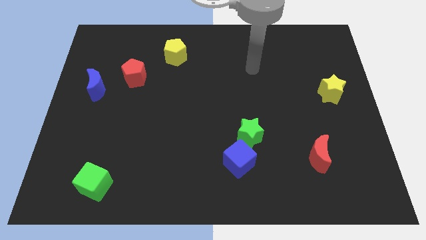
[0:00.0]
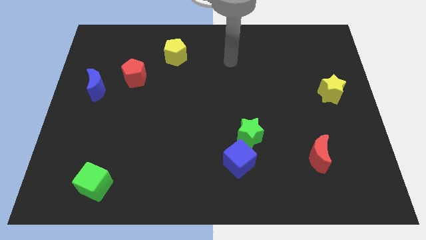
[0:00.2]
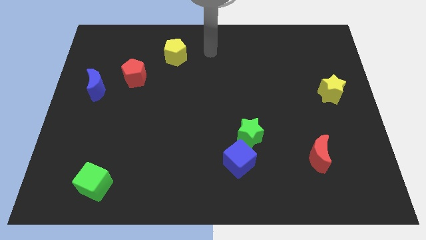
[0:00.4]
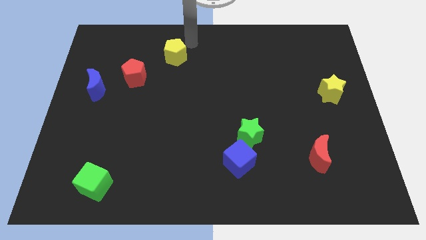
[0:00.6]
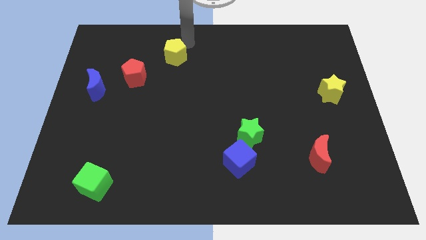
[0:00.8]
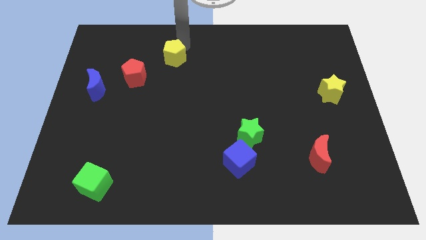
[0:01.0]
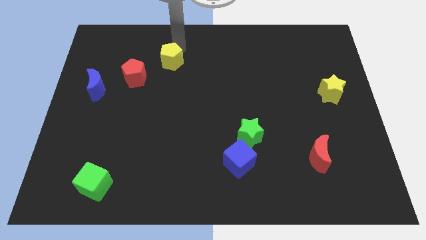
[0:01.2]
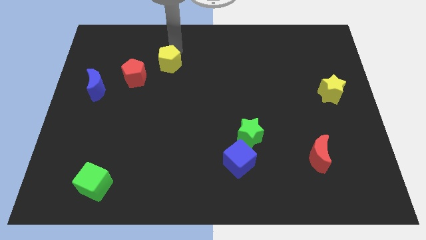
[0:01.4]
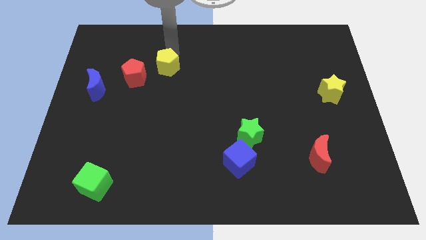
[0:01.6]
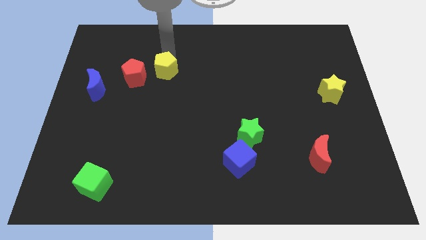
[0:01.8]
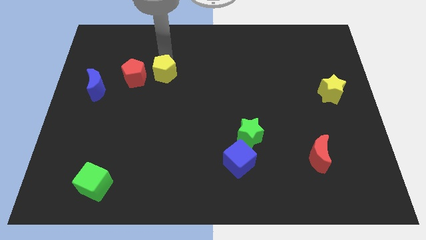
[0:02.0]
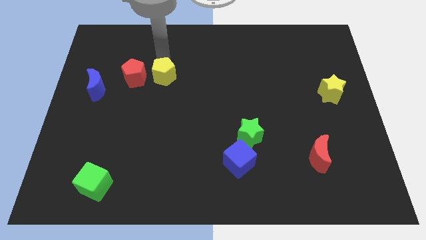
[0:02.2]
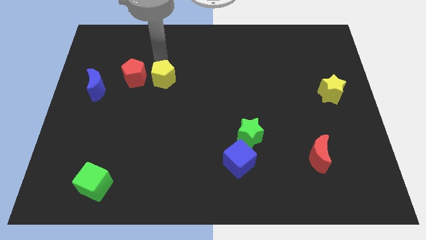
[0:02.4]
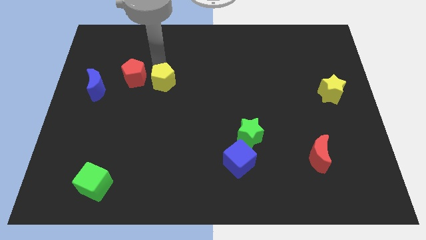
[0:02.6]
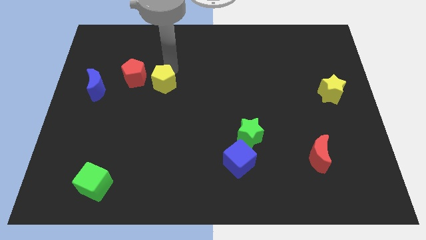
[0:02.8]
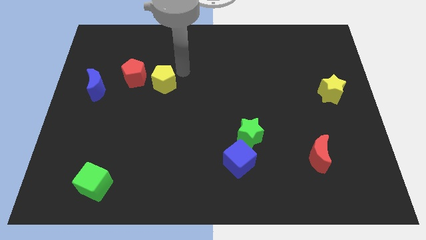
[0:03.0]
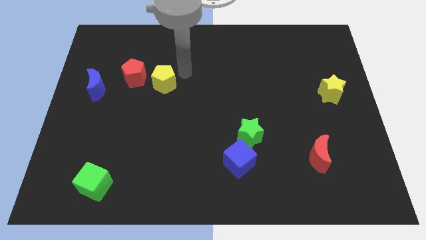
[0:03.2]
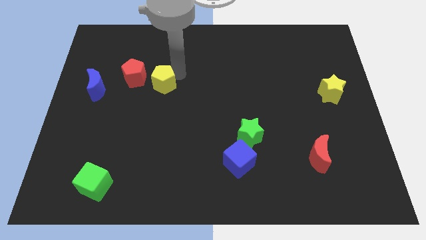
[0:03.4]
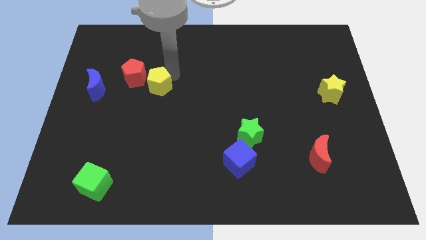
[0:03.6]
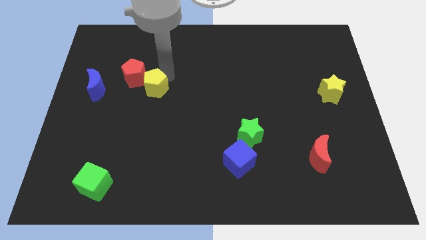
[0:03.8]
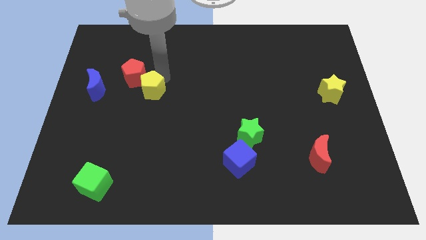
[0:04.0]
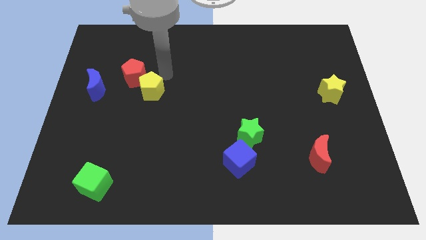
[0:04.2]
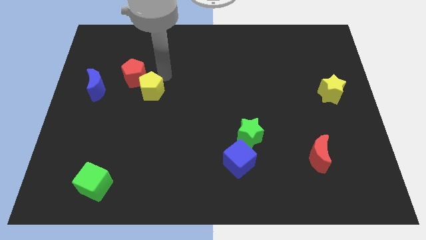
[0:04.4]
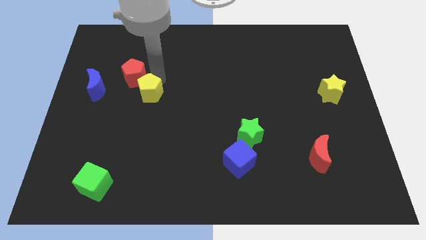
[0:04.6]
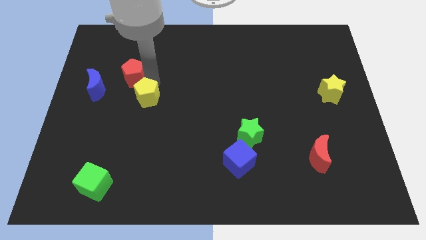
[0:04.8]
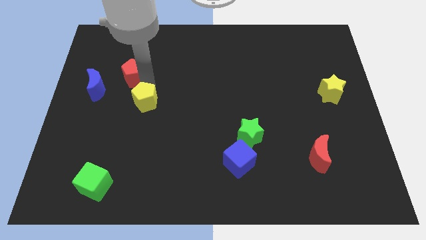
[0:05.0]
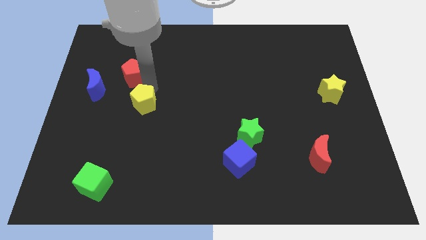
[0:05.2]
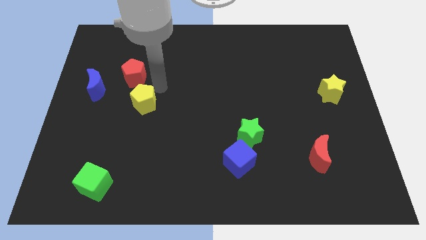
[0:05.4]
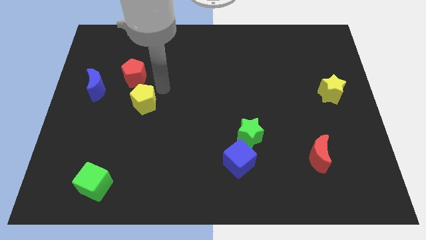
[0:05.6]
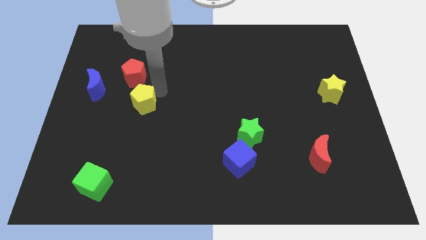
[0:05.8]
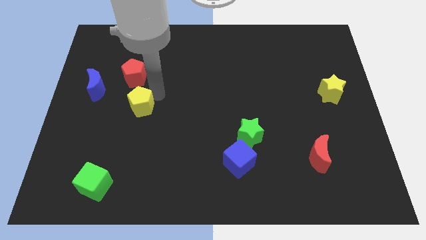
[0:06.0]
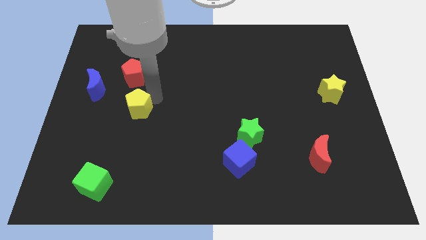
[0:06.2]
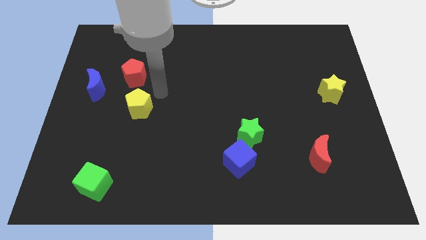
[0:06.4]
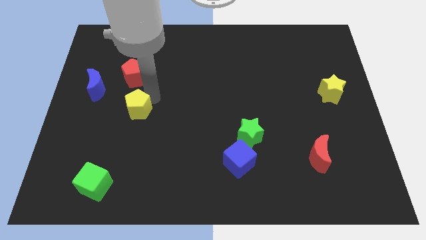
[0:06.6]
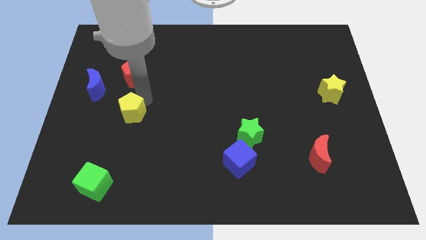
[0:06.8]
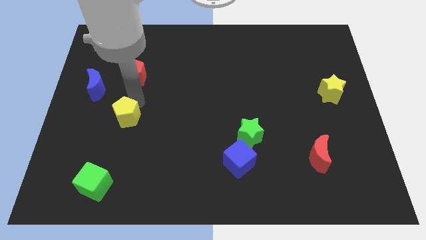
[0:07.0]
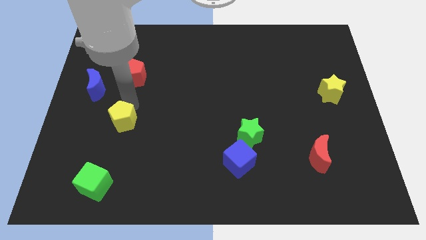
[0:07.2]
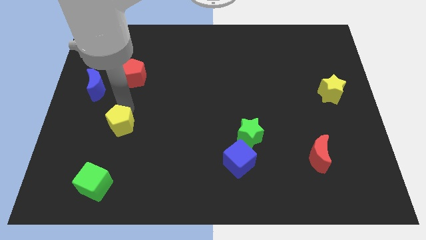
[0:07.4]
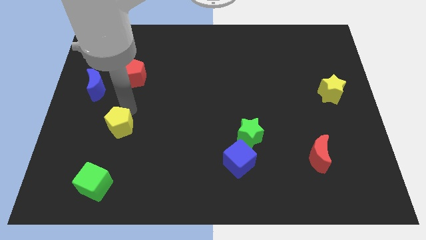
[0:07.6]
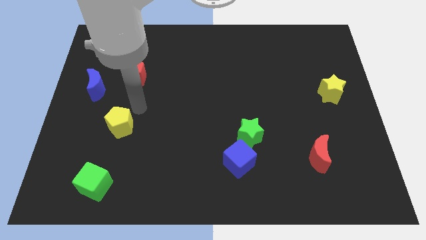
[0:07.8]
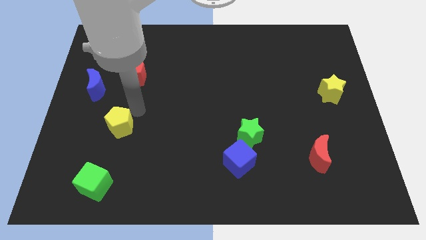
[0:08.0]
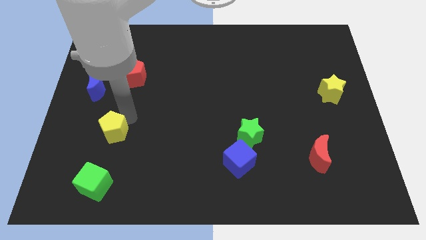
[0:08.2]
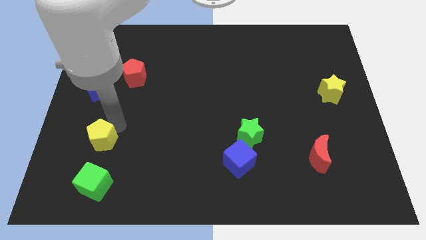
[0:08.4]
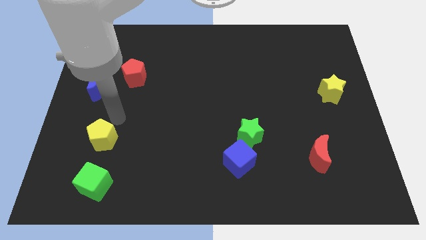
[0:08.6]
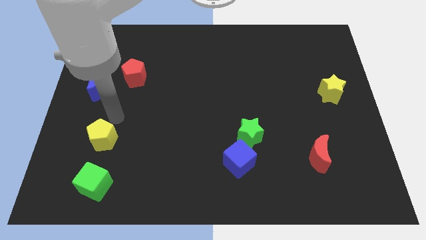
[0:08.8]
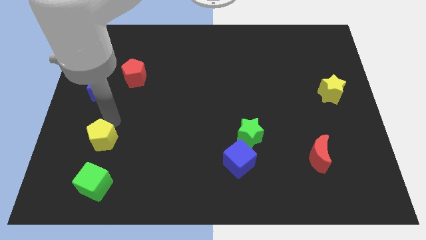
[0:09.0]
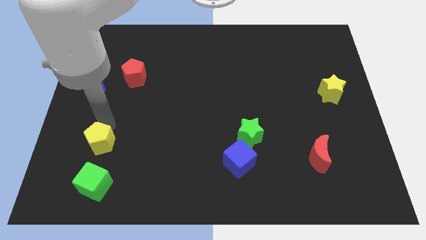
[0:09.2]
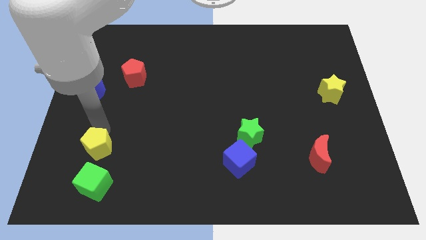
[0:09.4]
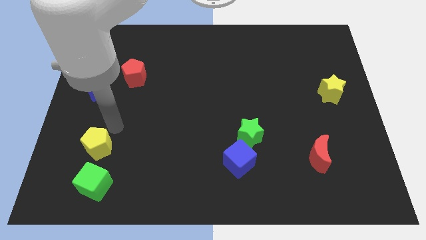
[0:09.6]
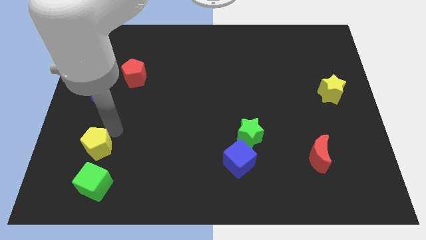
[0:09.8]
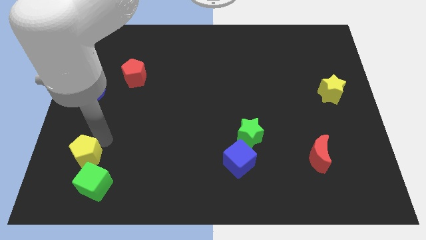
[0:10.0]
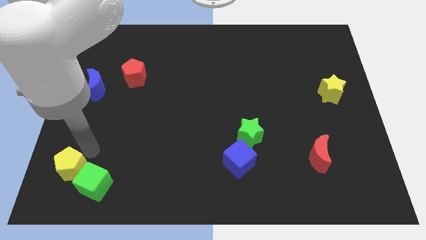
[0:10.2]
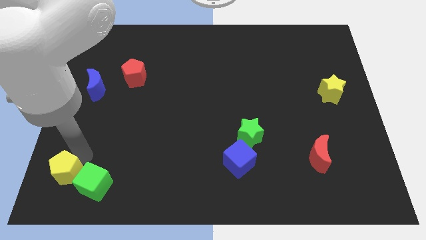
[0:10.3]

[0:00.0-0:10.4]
move the yellow pentagon to the bottom left of the board

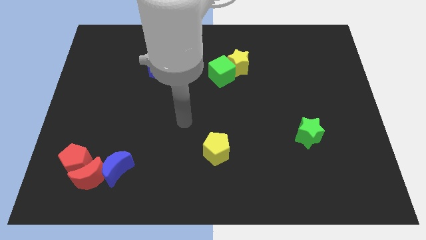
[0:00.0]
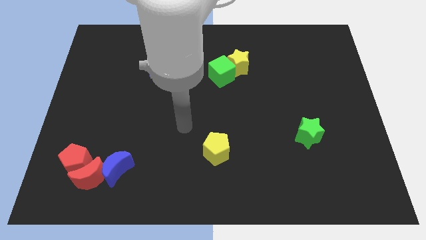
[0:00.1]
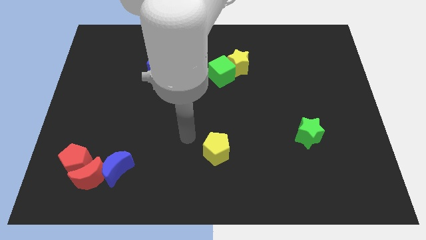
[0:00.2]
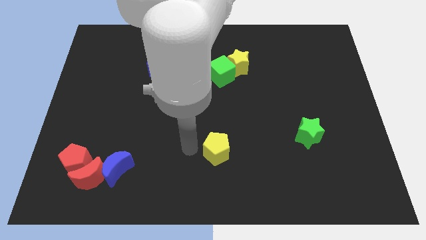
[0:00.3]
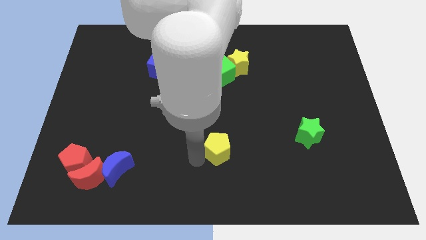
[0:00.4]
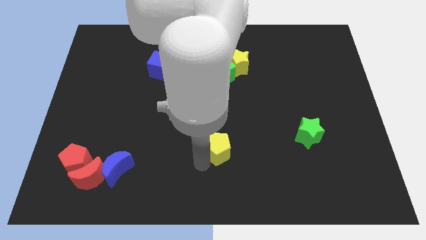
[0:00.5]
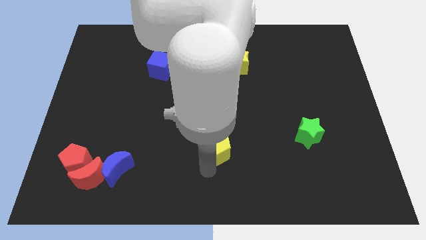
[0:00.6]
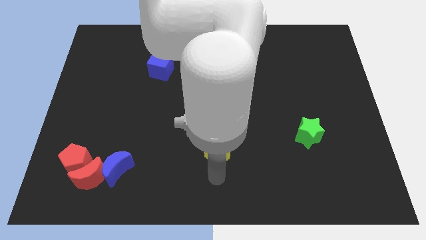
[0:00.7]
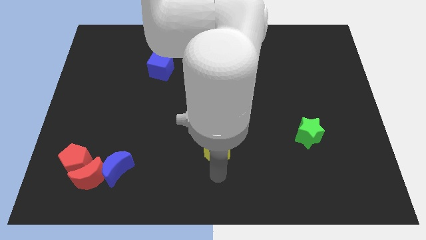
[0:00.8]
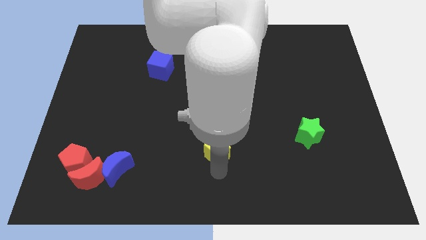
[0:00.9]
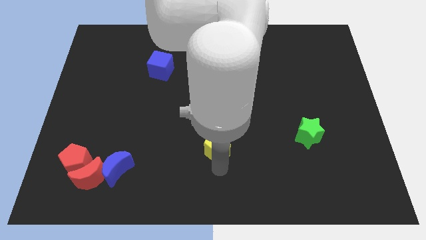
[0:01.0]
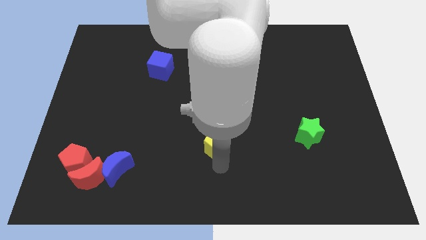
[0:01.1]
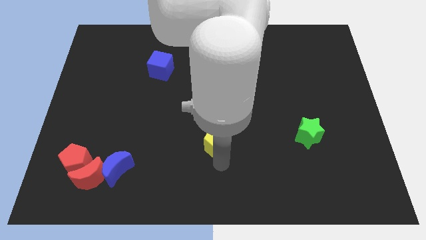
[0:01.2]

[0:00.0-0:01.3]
move the yellow pentagon to the center of the board
